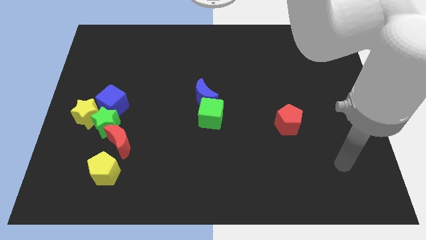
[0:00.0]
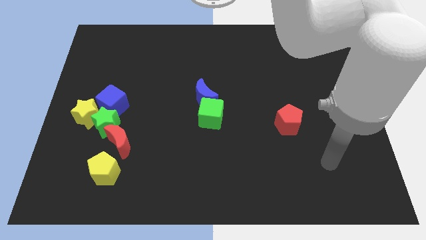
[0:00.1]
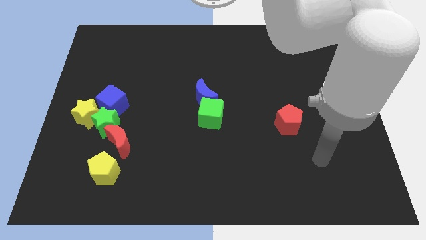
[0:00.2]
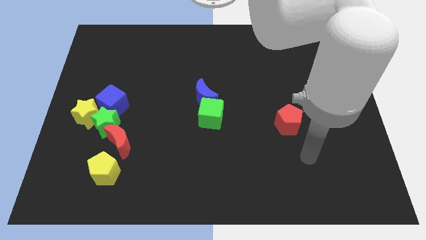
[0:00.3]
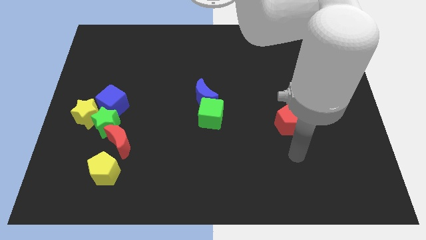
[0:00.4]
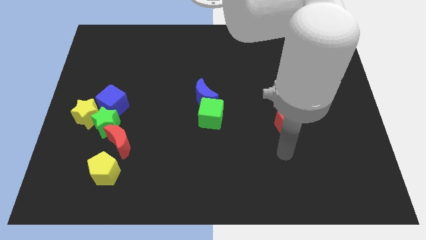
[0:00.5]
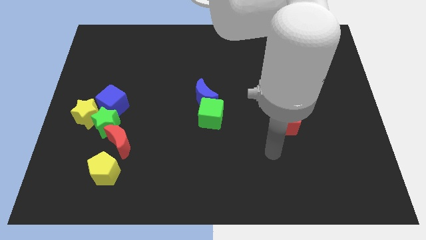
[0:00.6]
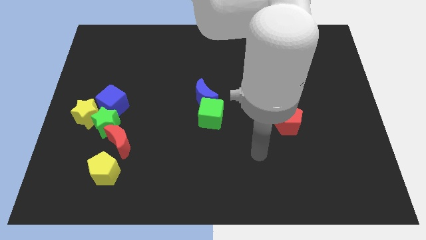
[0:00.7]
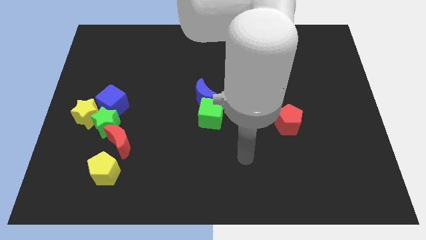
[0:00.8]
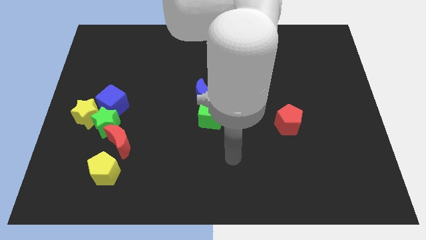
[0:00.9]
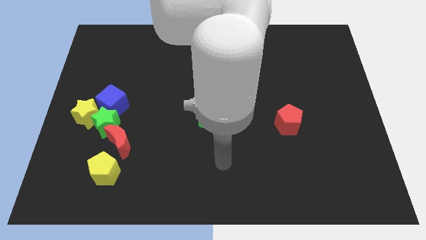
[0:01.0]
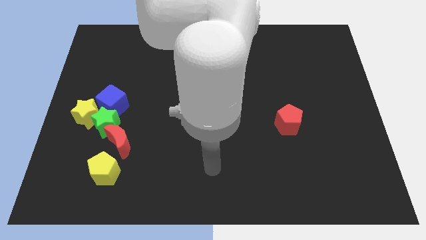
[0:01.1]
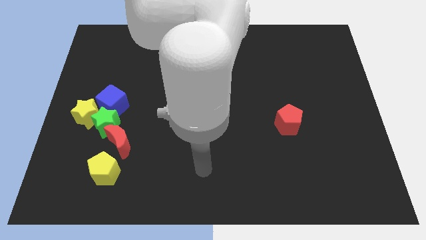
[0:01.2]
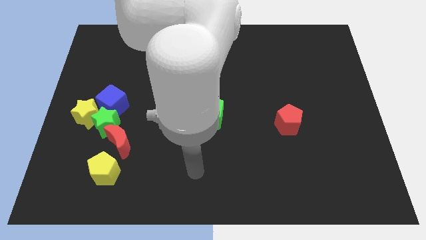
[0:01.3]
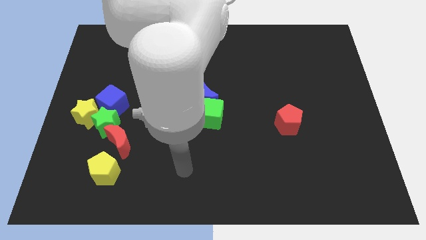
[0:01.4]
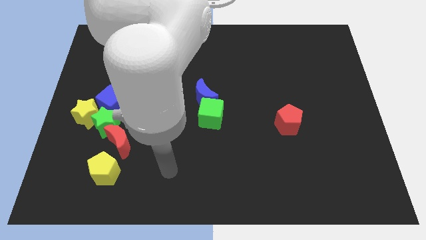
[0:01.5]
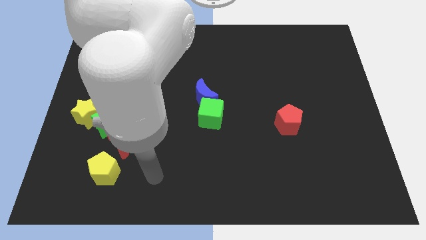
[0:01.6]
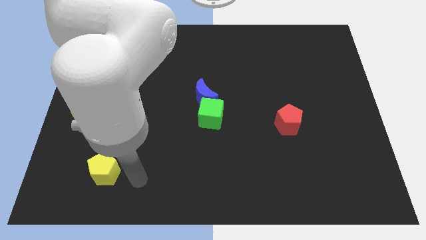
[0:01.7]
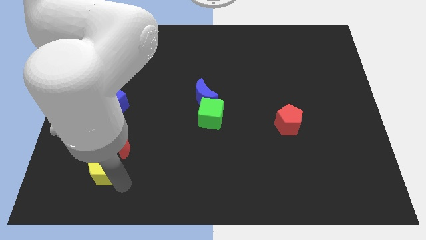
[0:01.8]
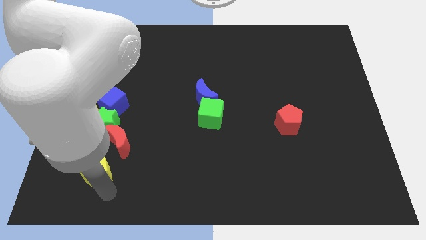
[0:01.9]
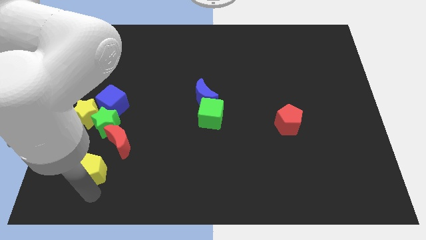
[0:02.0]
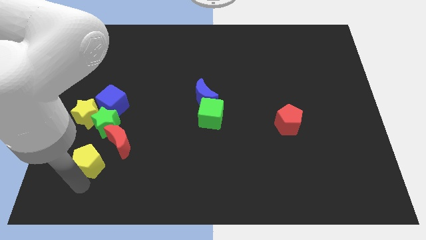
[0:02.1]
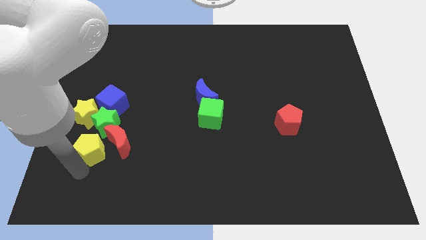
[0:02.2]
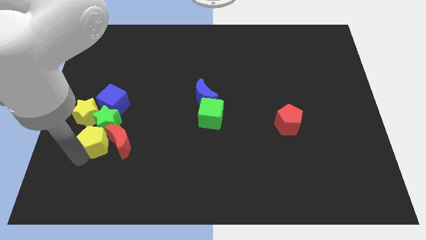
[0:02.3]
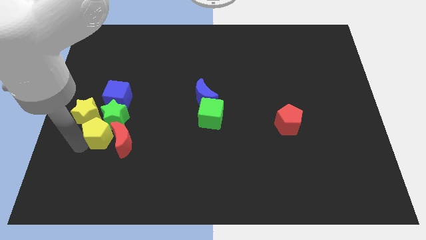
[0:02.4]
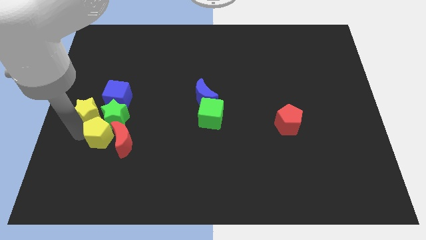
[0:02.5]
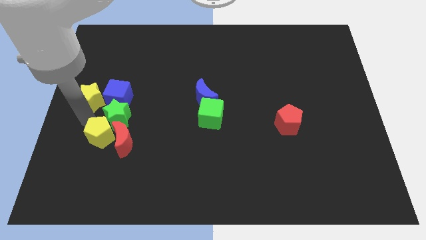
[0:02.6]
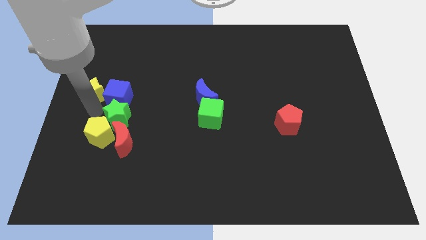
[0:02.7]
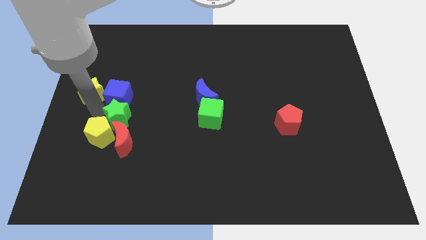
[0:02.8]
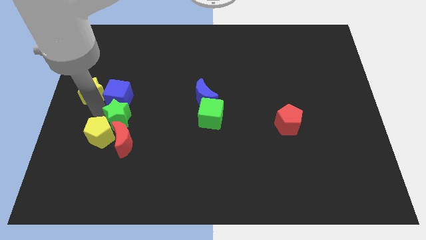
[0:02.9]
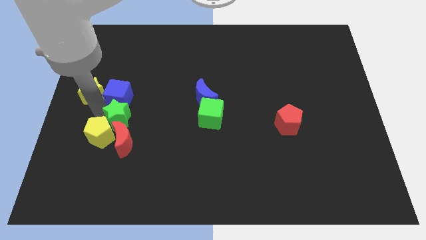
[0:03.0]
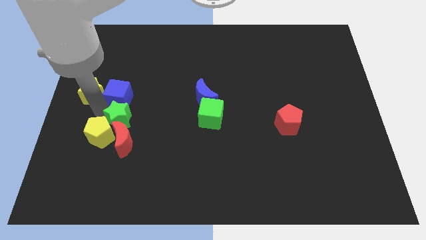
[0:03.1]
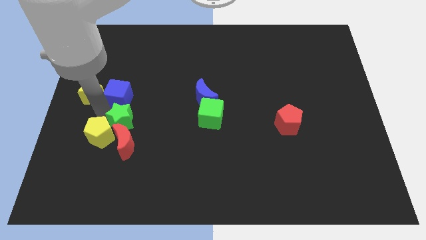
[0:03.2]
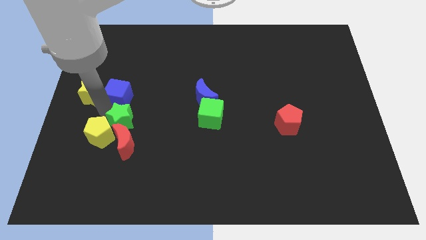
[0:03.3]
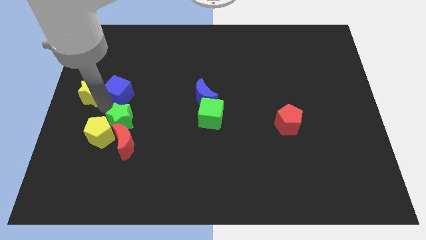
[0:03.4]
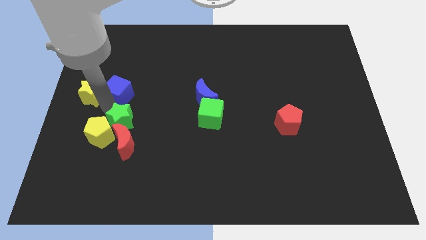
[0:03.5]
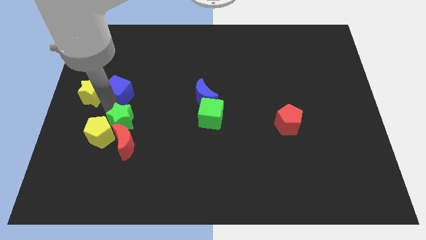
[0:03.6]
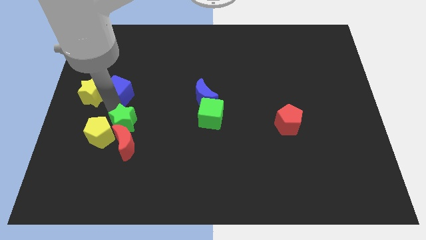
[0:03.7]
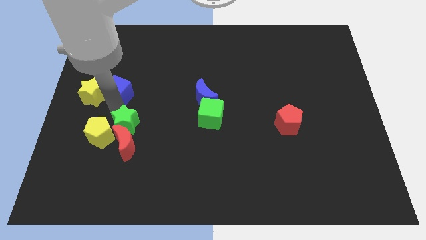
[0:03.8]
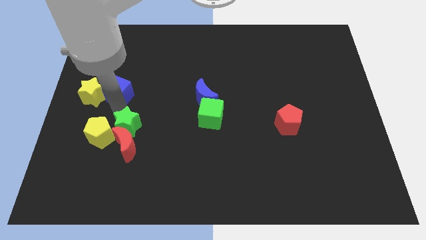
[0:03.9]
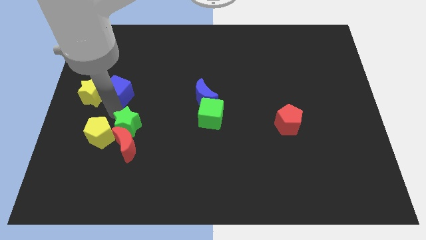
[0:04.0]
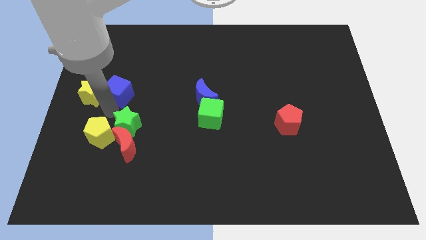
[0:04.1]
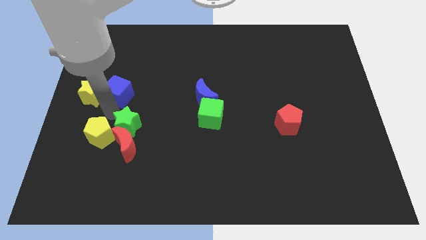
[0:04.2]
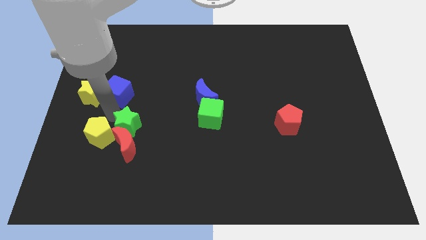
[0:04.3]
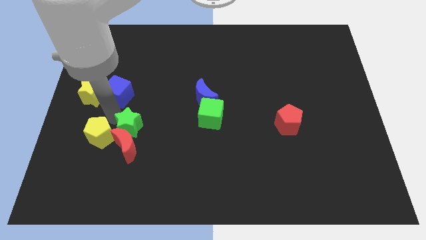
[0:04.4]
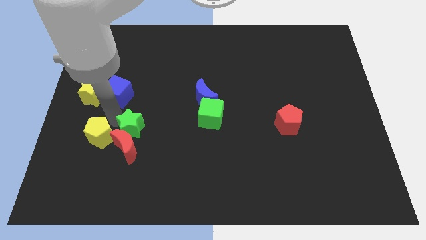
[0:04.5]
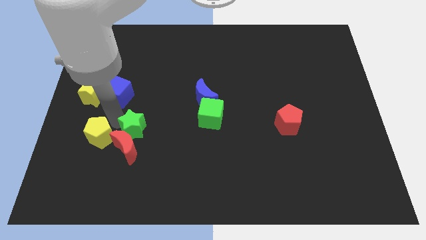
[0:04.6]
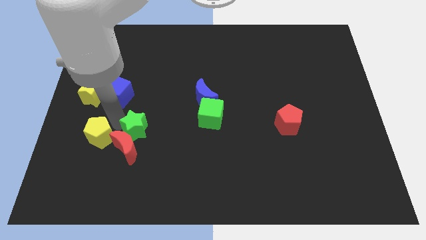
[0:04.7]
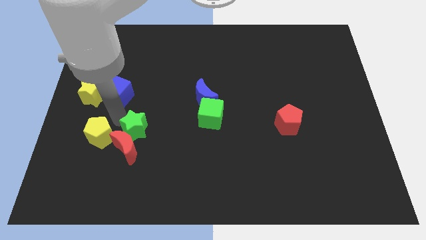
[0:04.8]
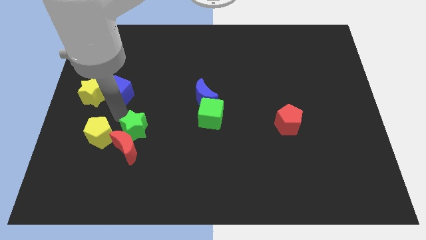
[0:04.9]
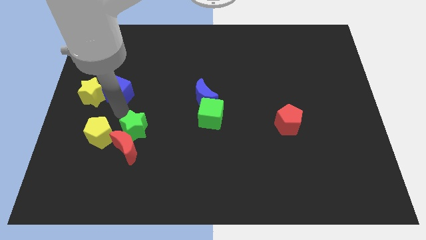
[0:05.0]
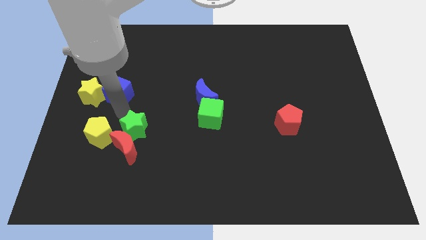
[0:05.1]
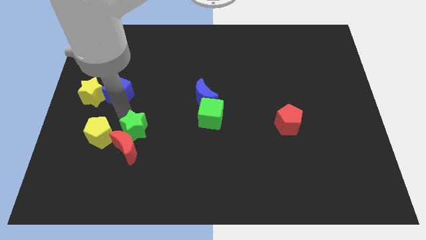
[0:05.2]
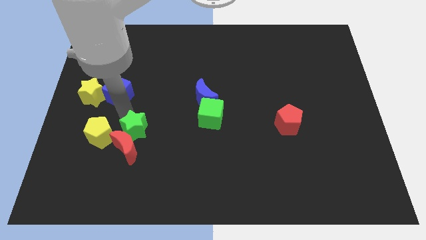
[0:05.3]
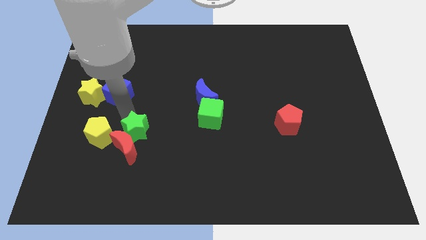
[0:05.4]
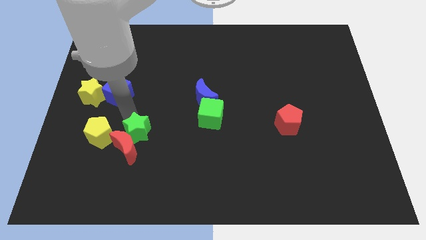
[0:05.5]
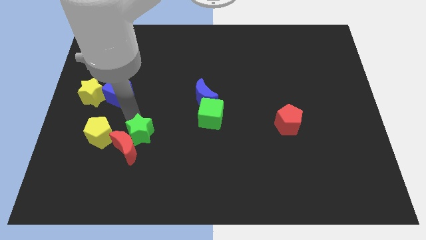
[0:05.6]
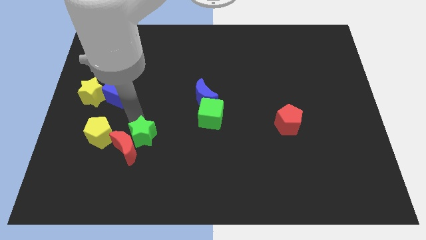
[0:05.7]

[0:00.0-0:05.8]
move the green star a bit downwards and then right

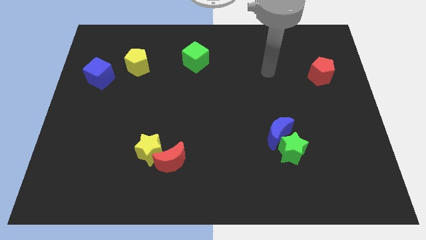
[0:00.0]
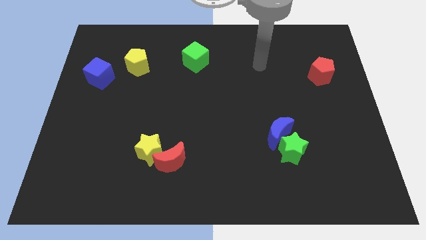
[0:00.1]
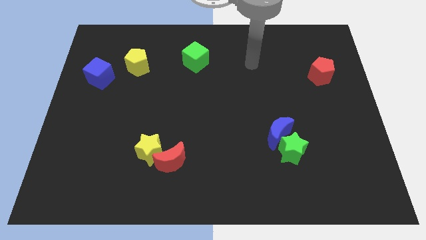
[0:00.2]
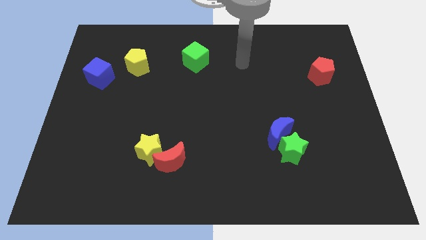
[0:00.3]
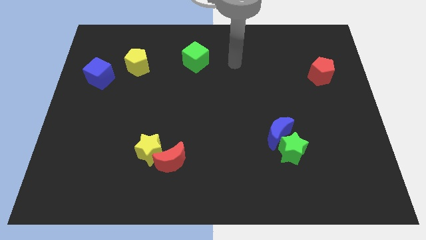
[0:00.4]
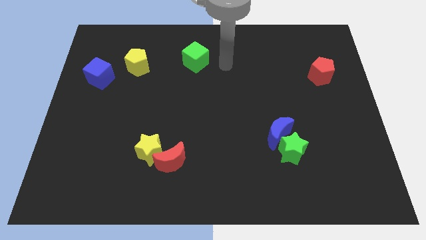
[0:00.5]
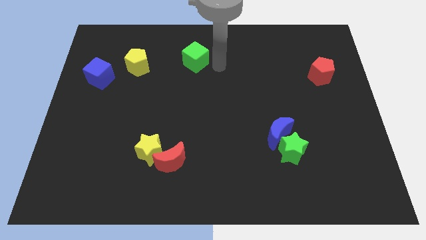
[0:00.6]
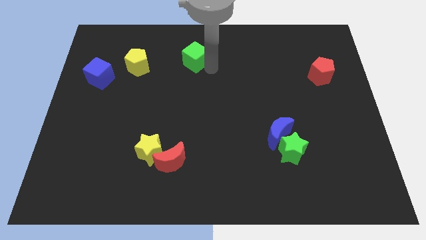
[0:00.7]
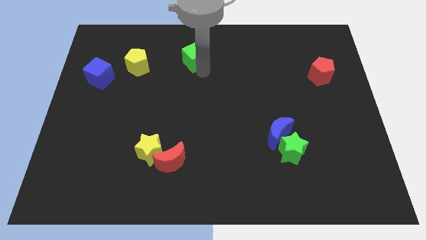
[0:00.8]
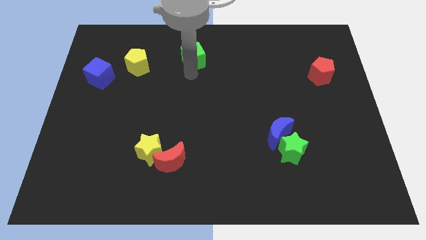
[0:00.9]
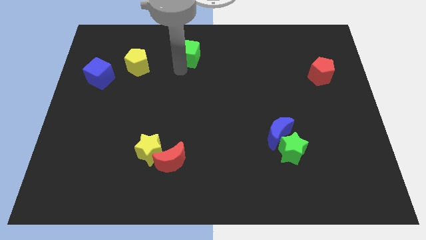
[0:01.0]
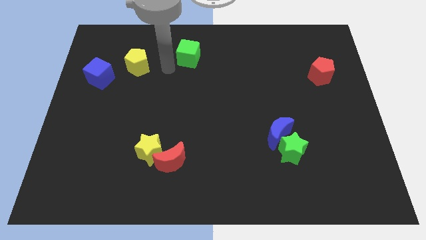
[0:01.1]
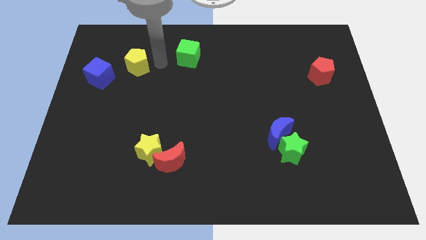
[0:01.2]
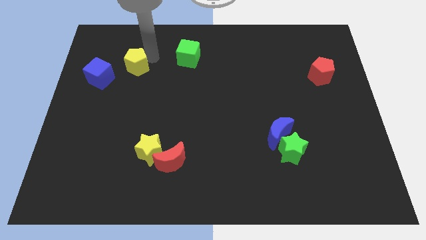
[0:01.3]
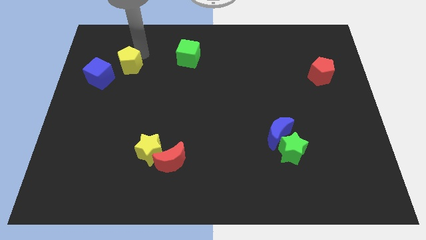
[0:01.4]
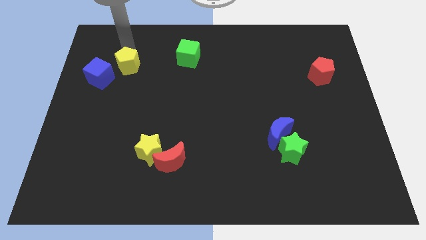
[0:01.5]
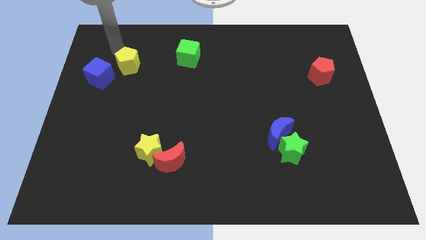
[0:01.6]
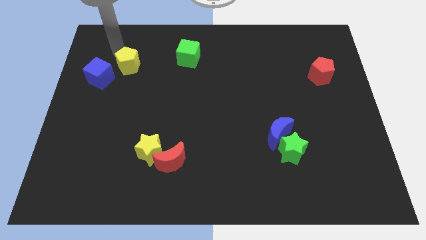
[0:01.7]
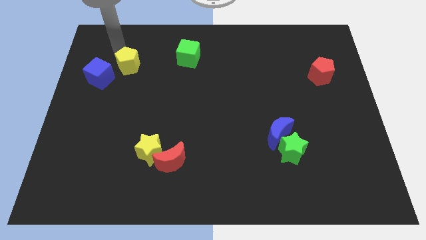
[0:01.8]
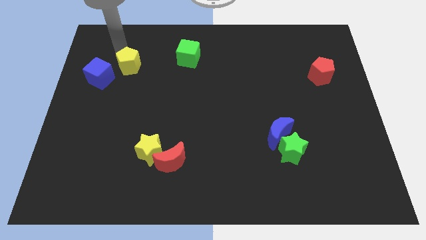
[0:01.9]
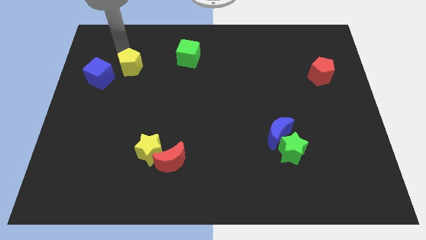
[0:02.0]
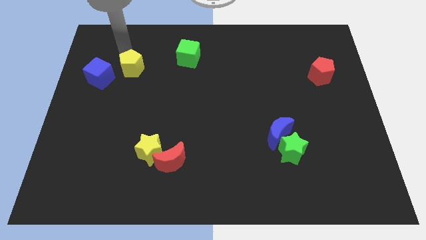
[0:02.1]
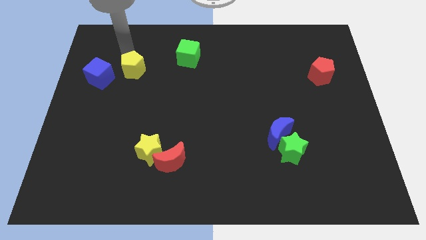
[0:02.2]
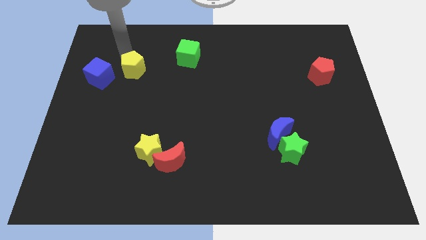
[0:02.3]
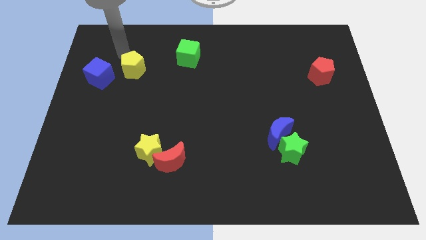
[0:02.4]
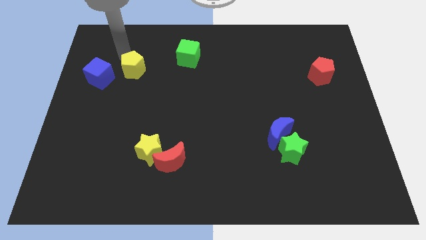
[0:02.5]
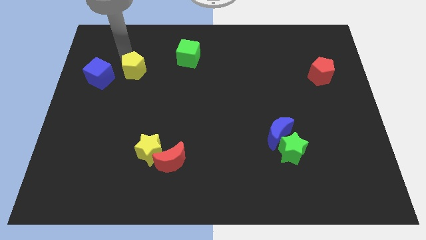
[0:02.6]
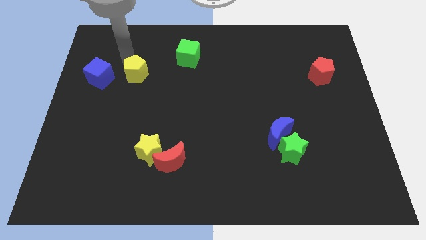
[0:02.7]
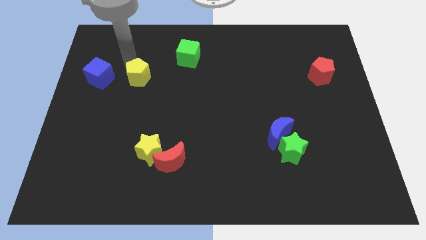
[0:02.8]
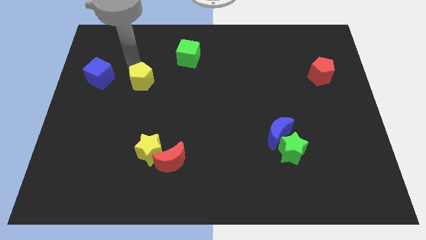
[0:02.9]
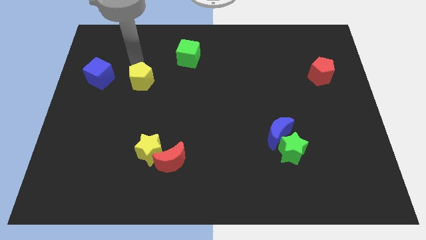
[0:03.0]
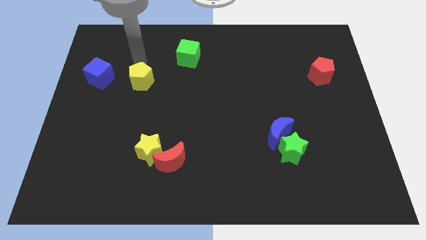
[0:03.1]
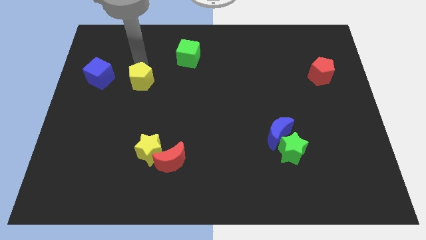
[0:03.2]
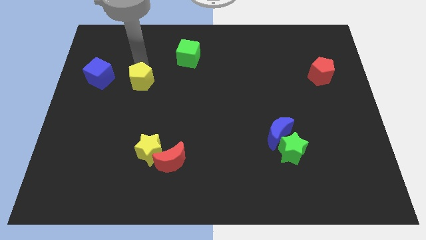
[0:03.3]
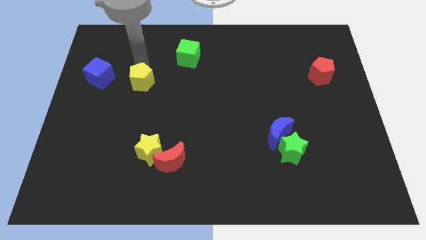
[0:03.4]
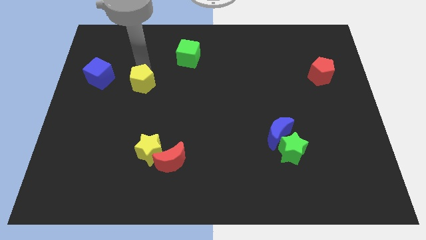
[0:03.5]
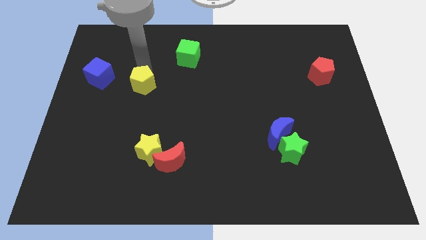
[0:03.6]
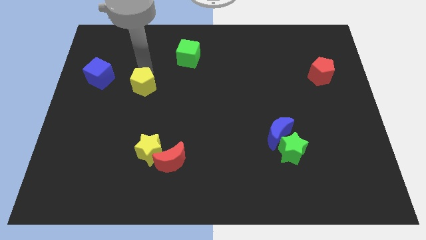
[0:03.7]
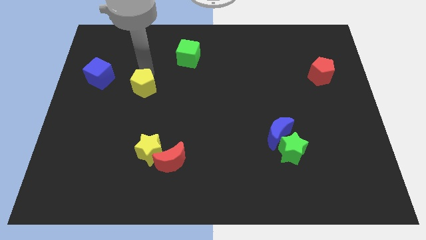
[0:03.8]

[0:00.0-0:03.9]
slide the yellow pentagon somewhat down
